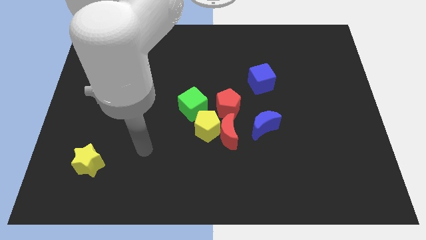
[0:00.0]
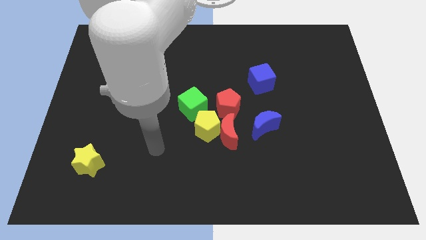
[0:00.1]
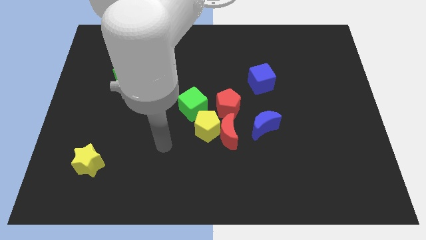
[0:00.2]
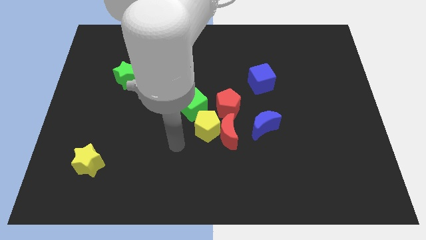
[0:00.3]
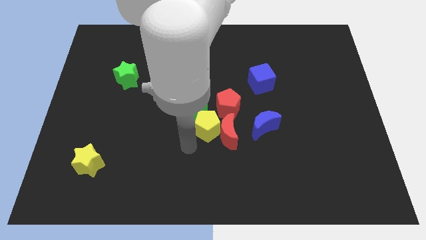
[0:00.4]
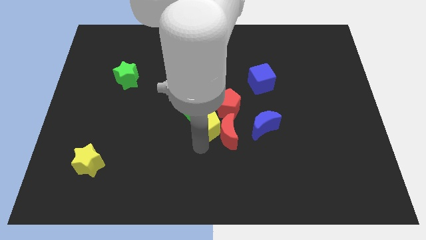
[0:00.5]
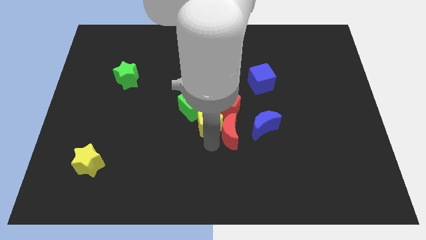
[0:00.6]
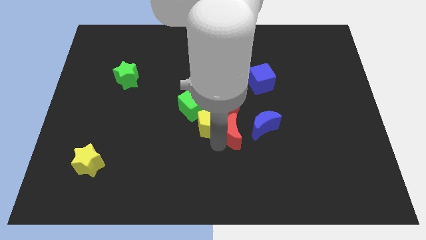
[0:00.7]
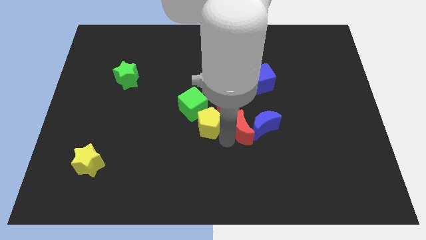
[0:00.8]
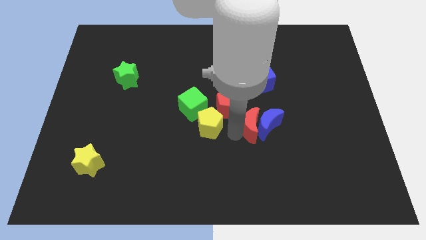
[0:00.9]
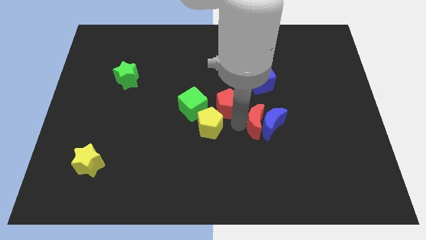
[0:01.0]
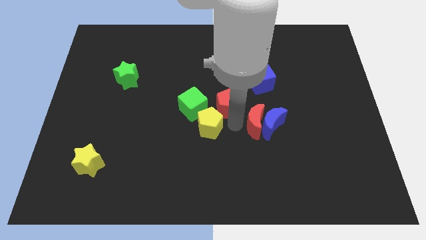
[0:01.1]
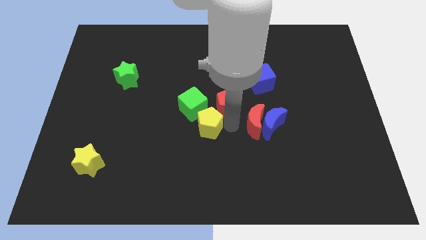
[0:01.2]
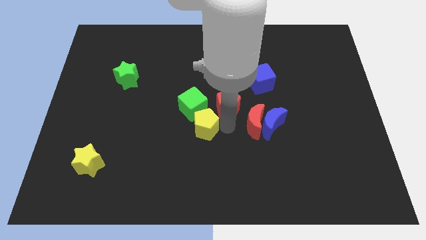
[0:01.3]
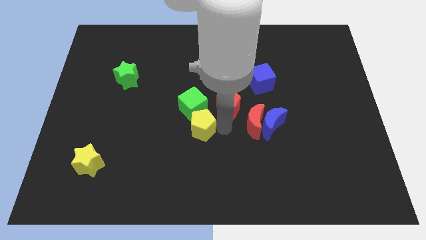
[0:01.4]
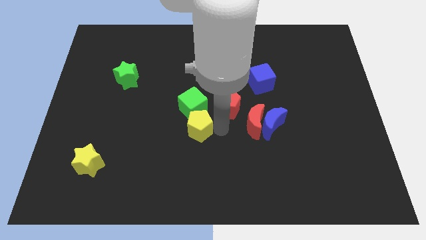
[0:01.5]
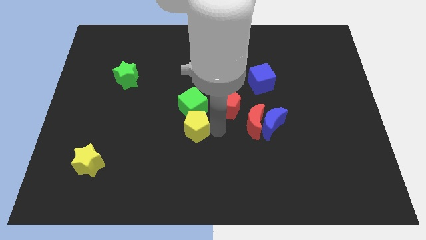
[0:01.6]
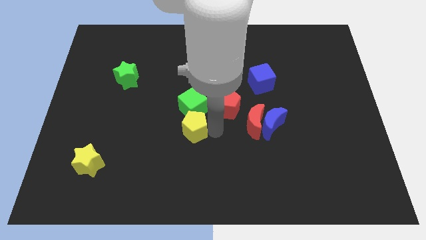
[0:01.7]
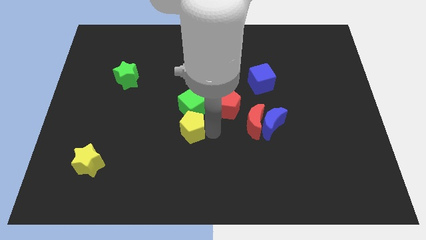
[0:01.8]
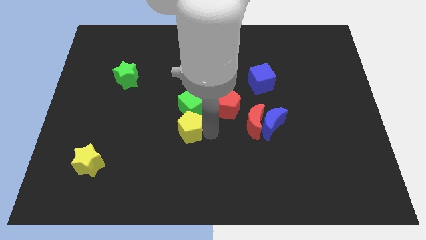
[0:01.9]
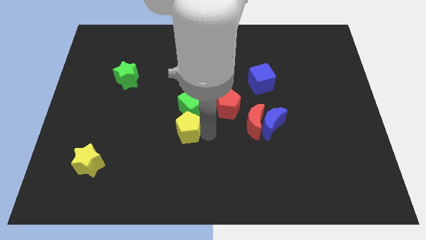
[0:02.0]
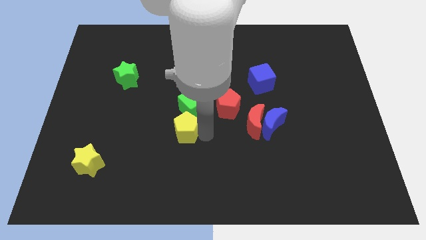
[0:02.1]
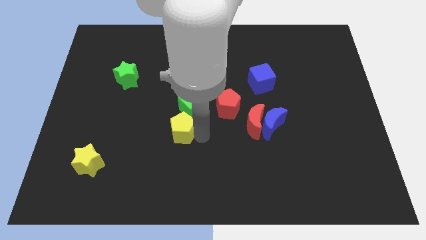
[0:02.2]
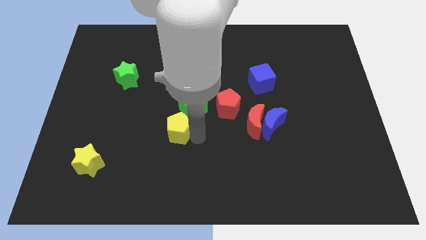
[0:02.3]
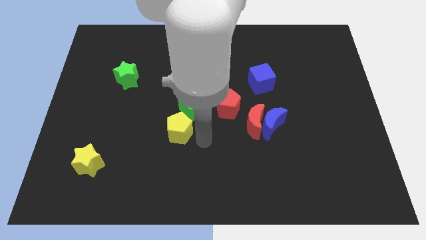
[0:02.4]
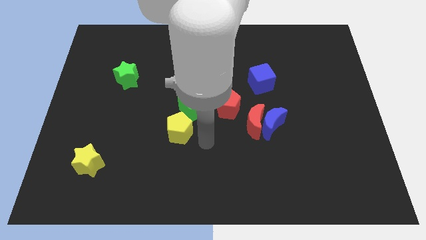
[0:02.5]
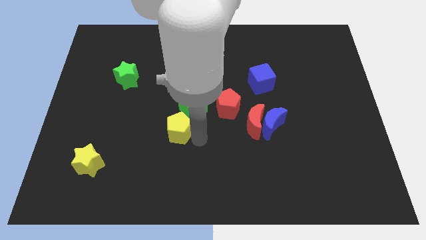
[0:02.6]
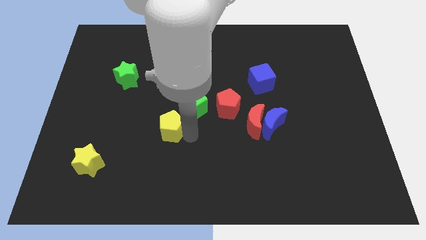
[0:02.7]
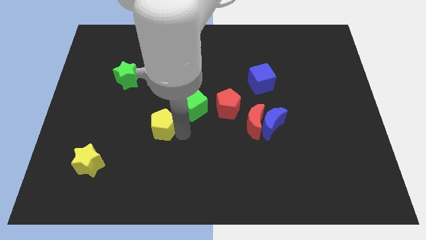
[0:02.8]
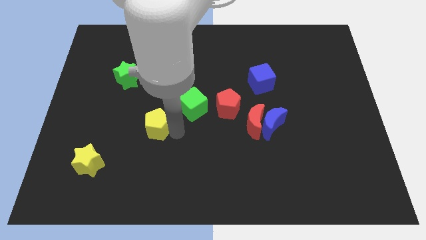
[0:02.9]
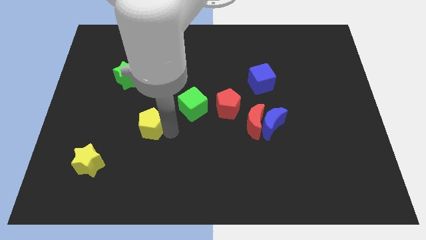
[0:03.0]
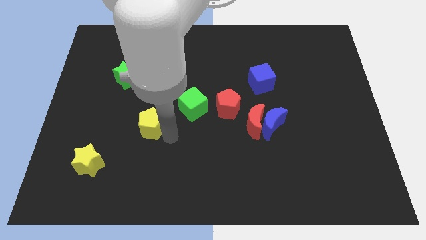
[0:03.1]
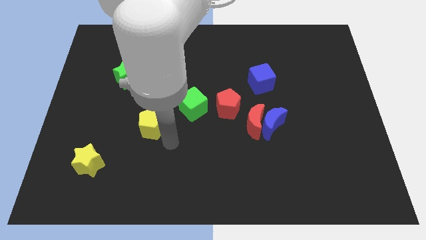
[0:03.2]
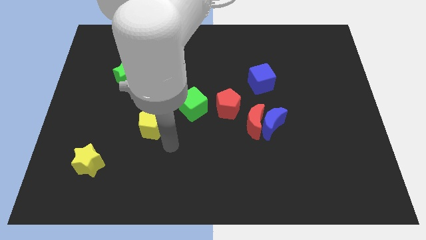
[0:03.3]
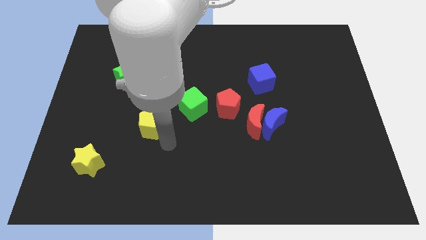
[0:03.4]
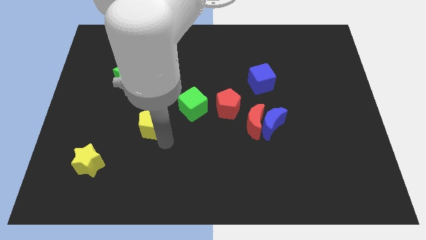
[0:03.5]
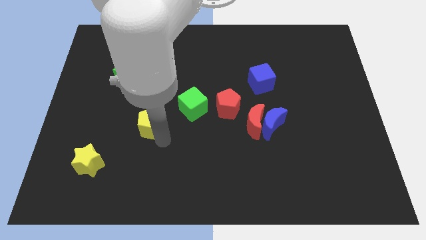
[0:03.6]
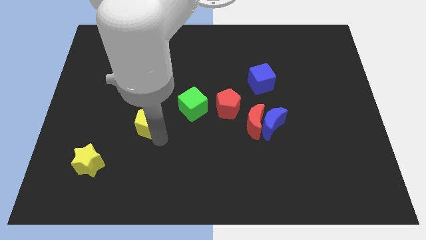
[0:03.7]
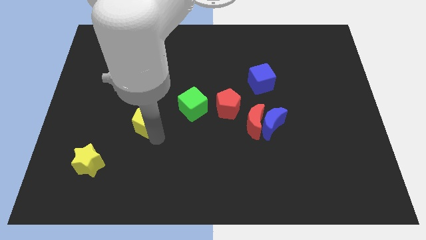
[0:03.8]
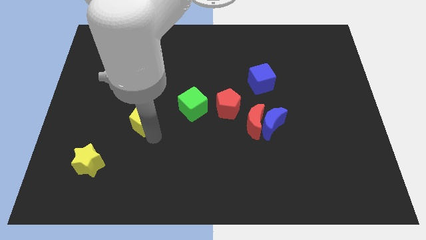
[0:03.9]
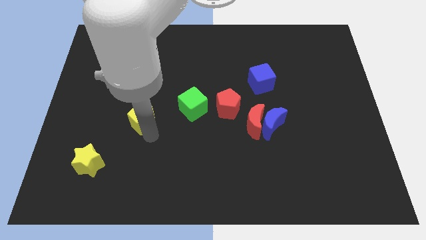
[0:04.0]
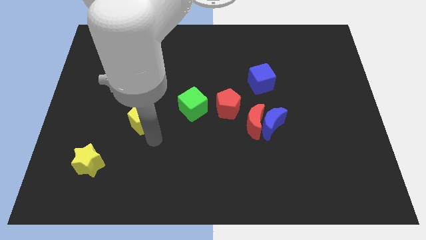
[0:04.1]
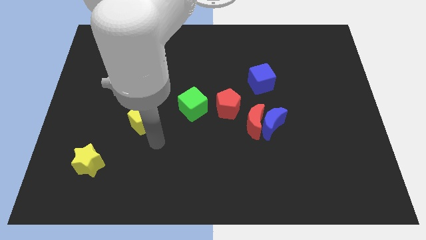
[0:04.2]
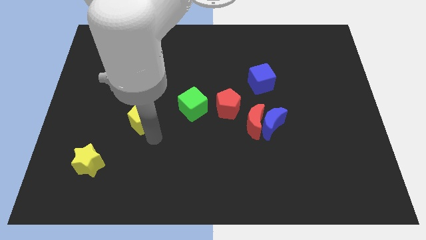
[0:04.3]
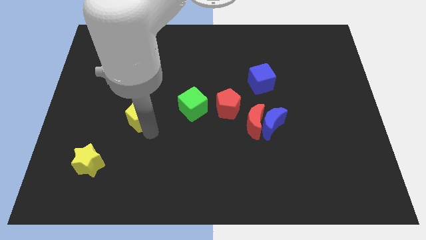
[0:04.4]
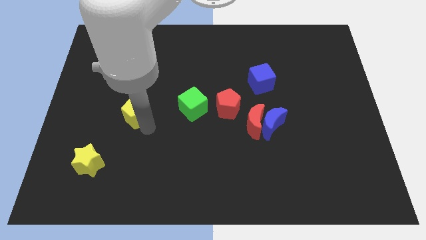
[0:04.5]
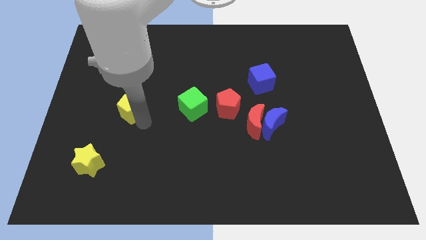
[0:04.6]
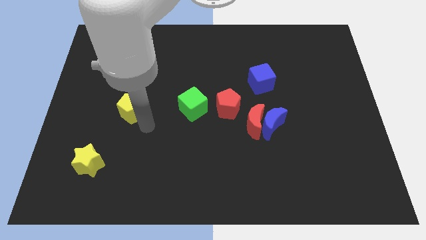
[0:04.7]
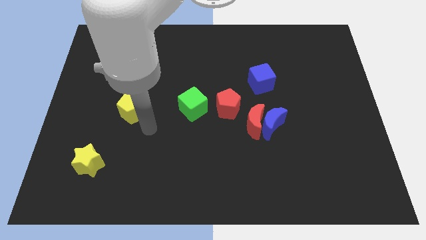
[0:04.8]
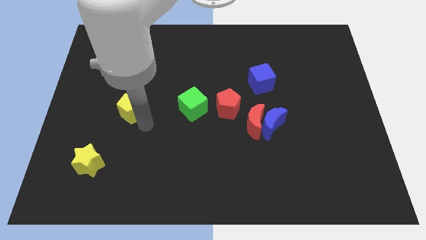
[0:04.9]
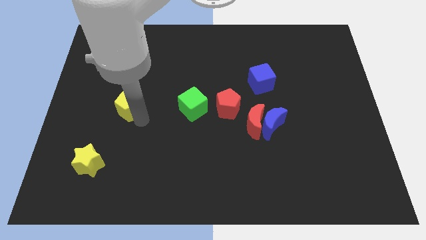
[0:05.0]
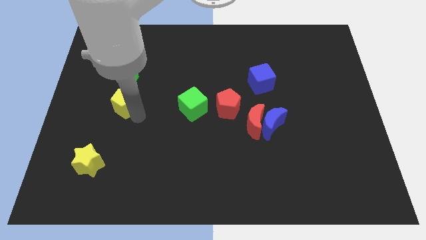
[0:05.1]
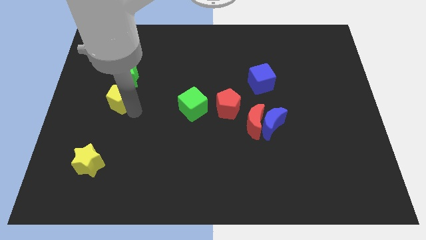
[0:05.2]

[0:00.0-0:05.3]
slide the yellow pentagon diagonally down and to the left of the green star

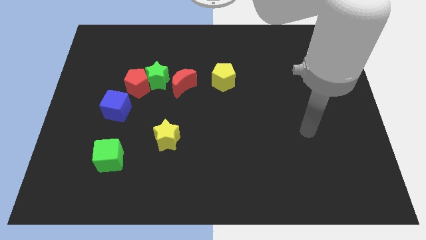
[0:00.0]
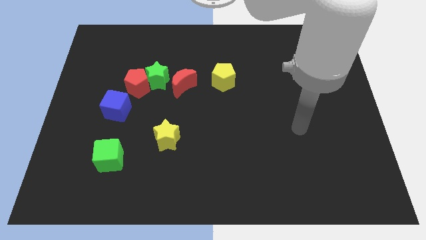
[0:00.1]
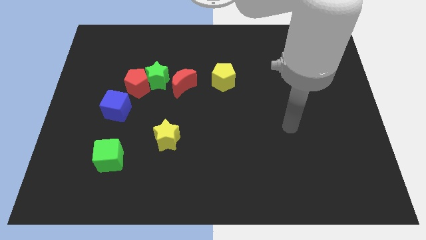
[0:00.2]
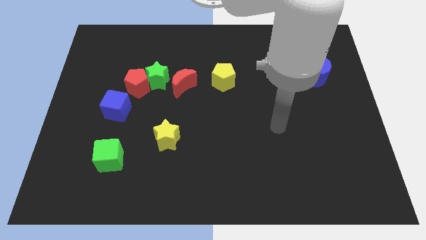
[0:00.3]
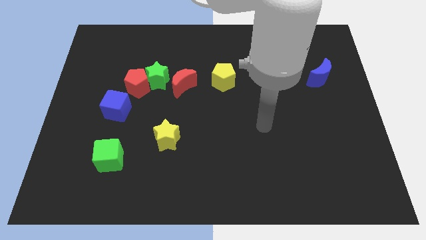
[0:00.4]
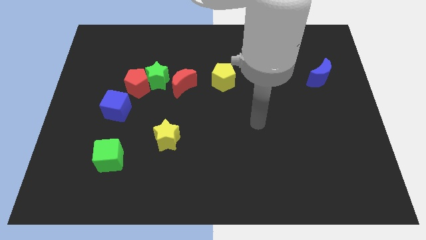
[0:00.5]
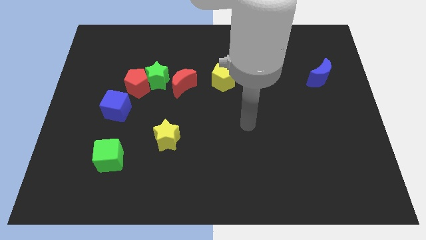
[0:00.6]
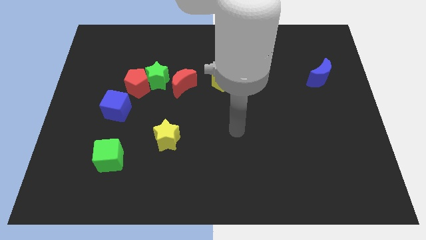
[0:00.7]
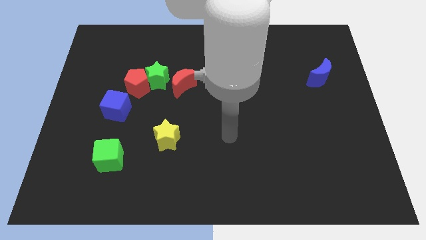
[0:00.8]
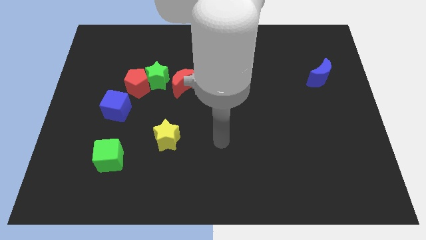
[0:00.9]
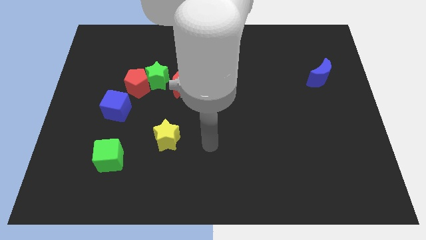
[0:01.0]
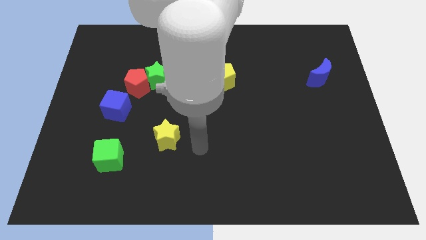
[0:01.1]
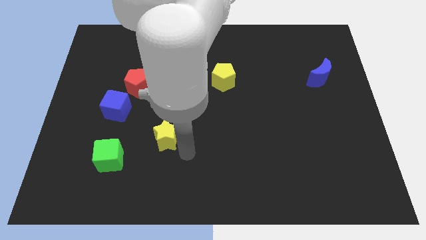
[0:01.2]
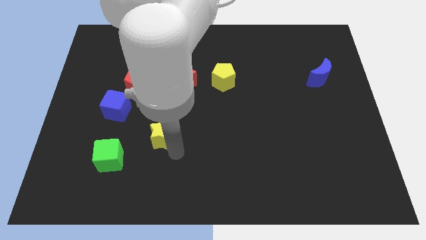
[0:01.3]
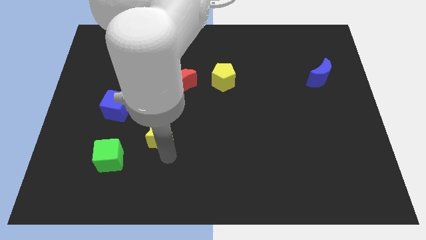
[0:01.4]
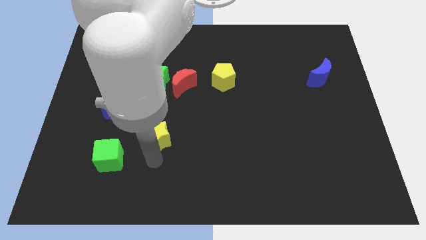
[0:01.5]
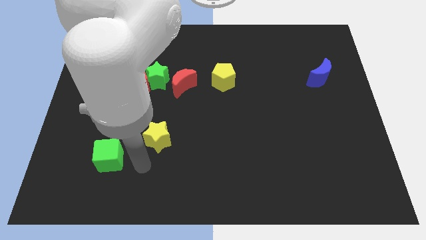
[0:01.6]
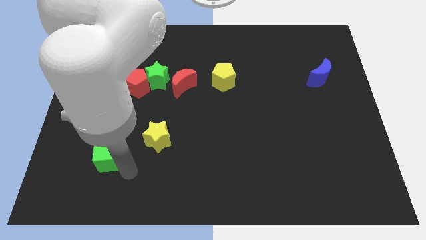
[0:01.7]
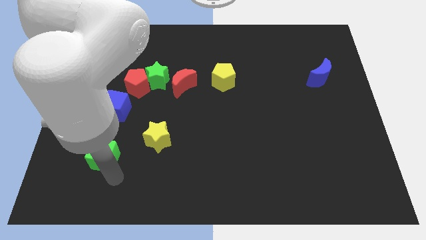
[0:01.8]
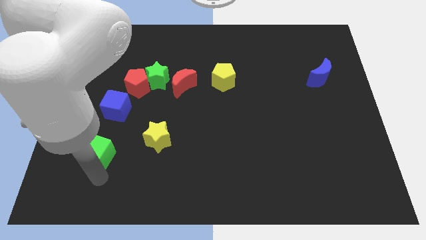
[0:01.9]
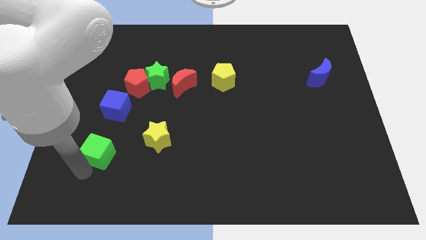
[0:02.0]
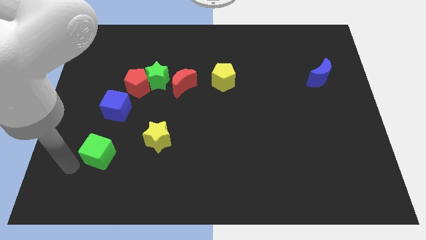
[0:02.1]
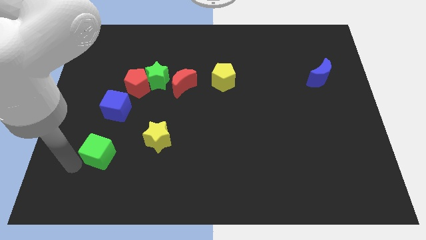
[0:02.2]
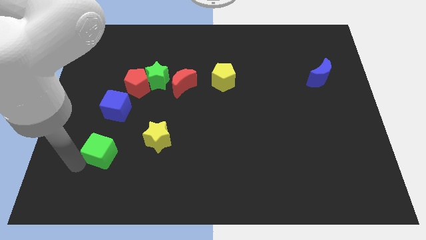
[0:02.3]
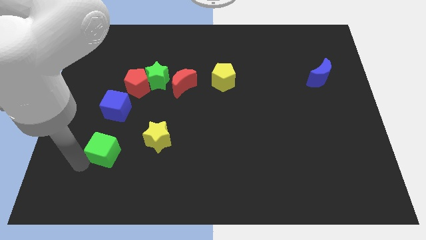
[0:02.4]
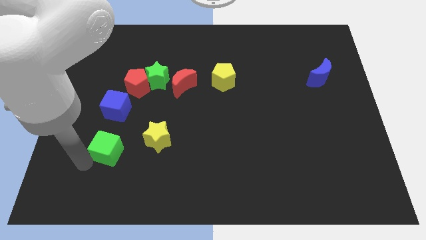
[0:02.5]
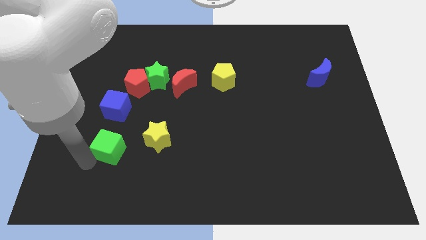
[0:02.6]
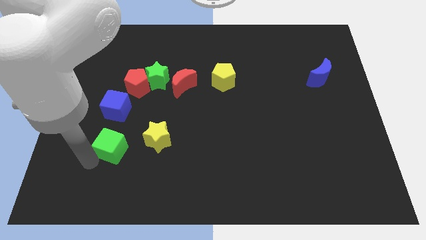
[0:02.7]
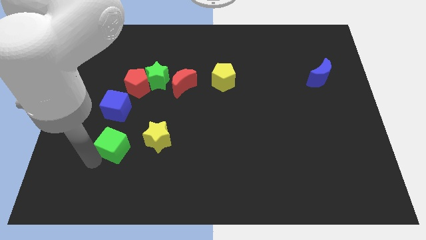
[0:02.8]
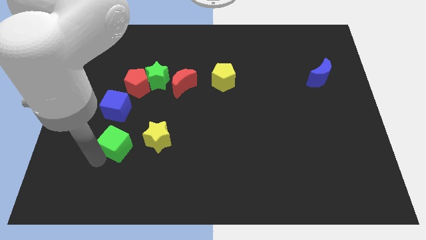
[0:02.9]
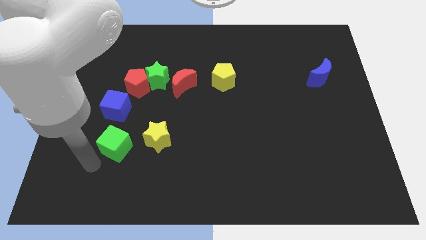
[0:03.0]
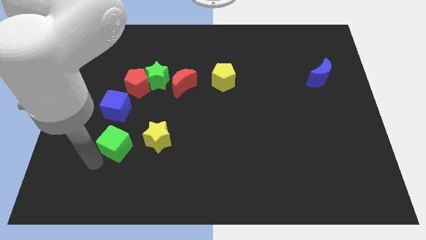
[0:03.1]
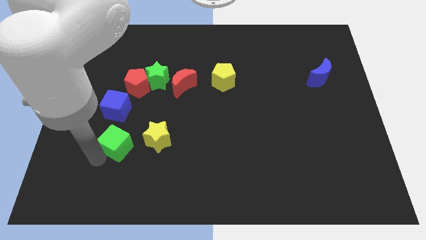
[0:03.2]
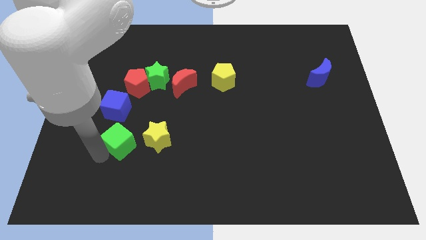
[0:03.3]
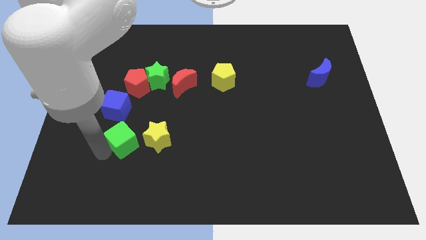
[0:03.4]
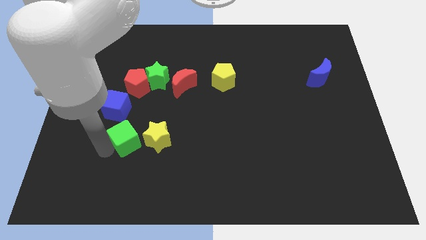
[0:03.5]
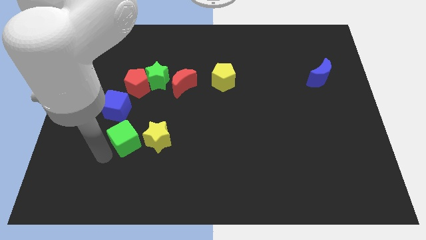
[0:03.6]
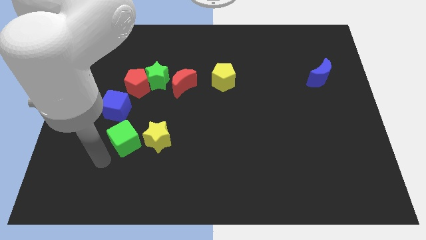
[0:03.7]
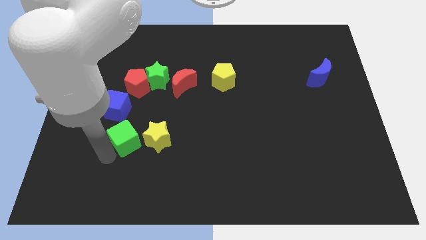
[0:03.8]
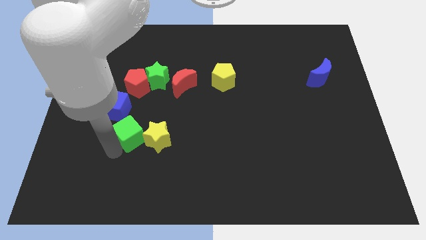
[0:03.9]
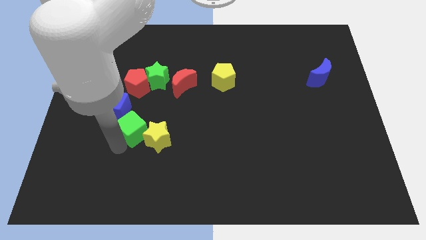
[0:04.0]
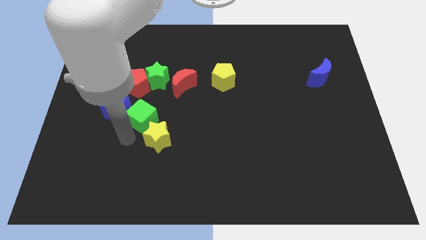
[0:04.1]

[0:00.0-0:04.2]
push the green cube to the top of the yellow star
